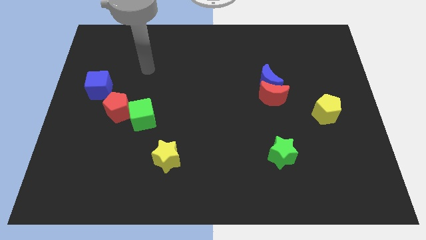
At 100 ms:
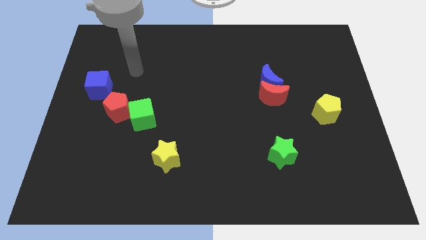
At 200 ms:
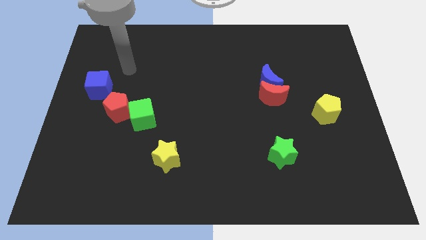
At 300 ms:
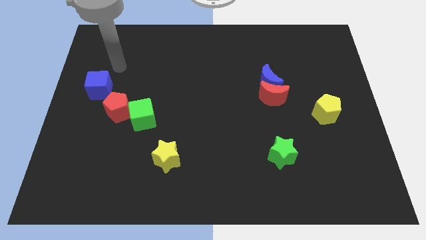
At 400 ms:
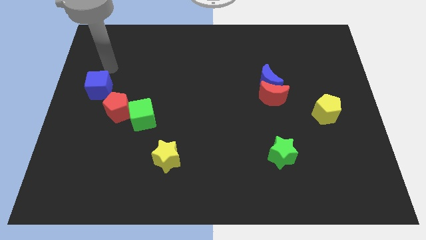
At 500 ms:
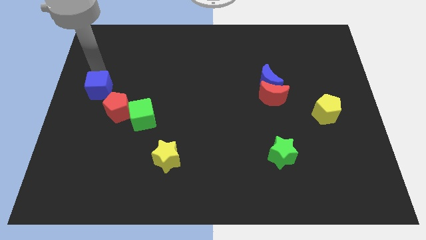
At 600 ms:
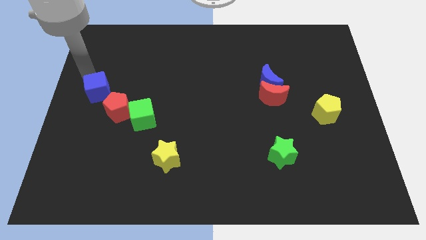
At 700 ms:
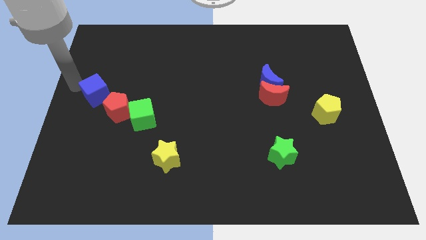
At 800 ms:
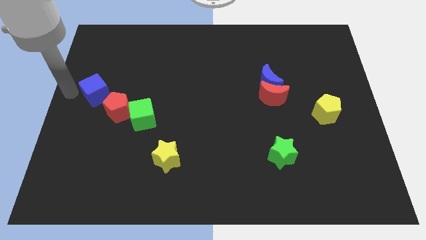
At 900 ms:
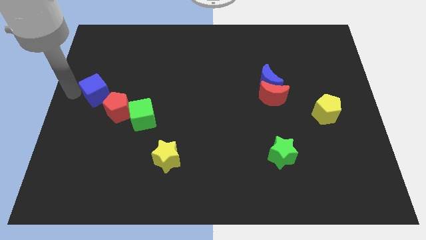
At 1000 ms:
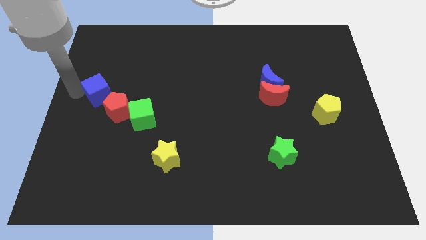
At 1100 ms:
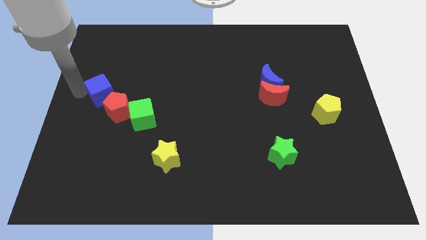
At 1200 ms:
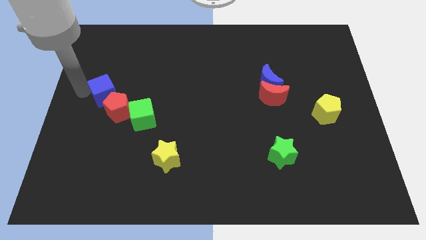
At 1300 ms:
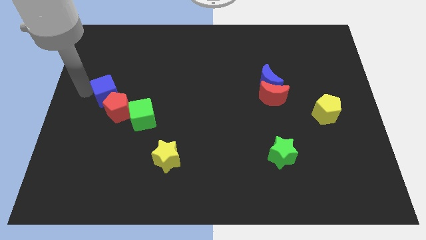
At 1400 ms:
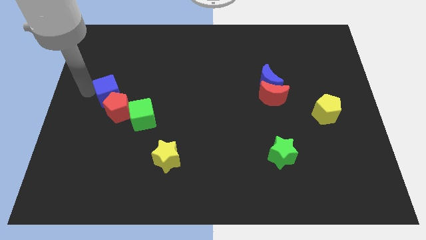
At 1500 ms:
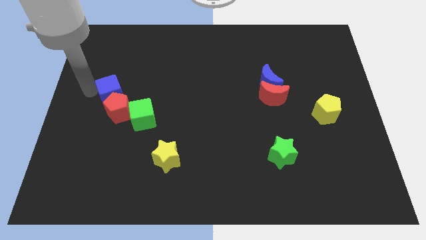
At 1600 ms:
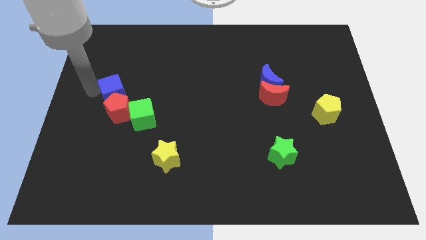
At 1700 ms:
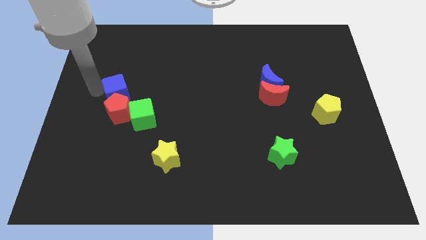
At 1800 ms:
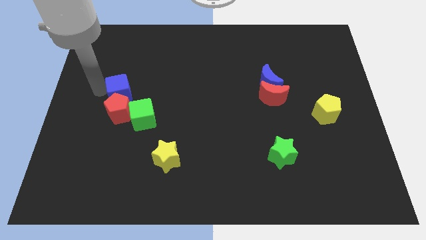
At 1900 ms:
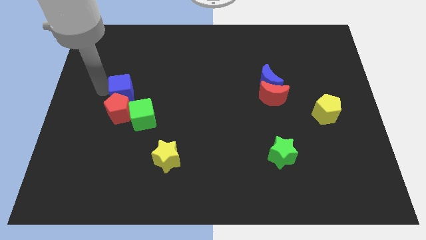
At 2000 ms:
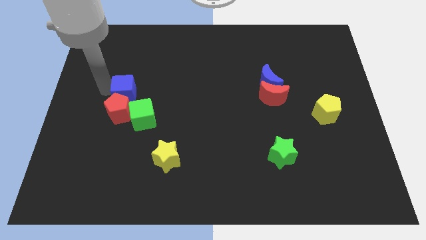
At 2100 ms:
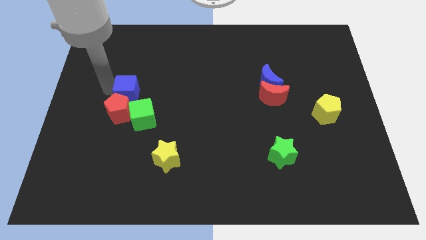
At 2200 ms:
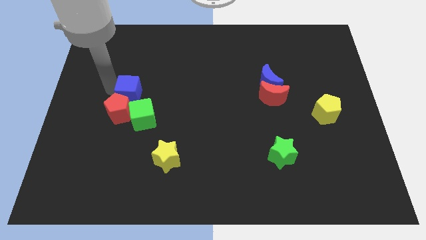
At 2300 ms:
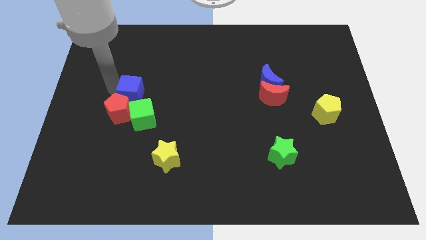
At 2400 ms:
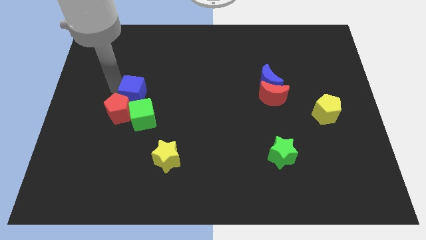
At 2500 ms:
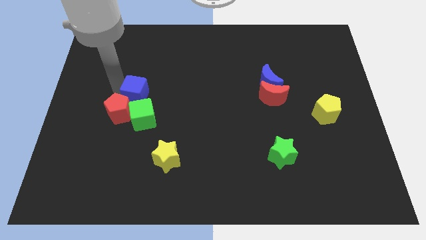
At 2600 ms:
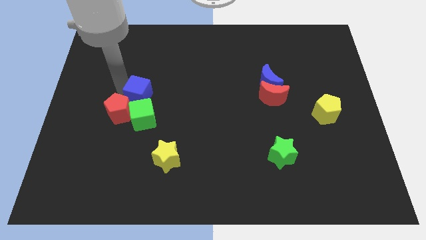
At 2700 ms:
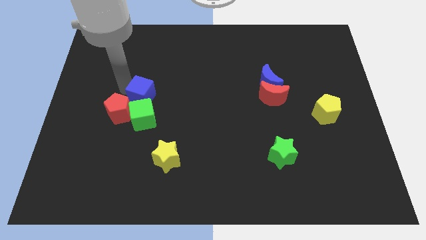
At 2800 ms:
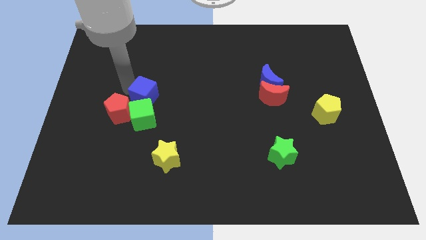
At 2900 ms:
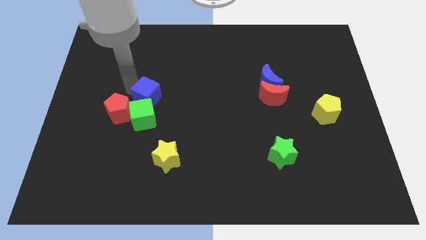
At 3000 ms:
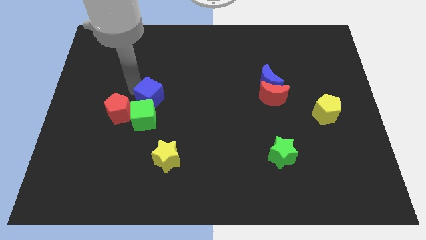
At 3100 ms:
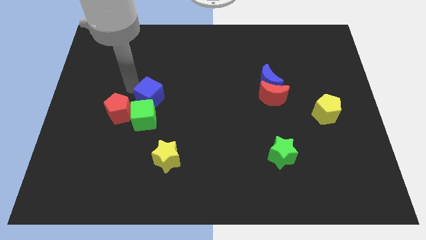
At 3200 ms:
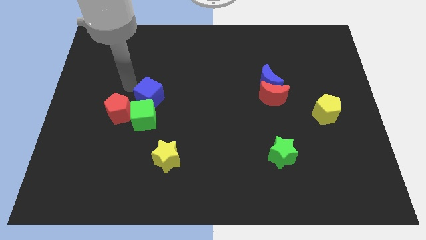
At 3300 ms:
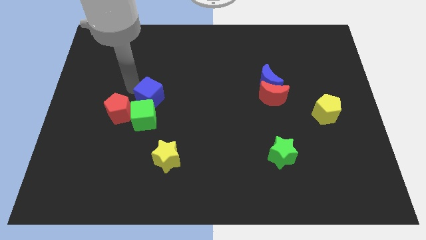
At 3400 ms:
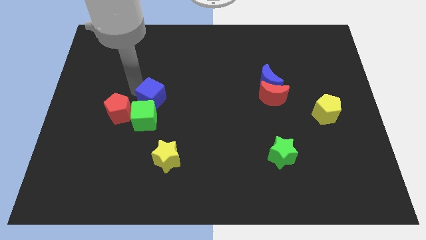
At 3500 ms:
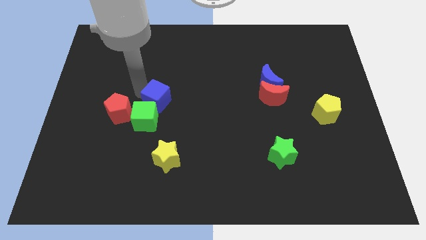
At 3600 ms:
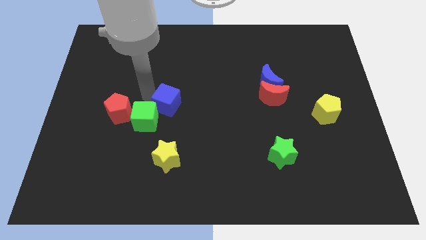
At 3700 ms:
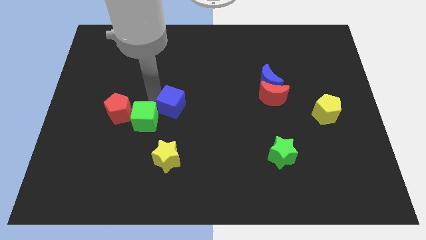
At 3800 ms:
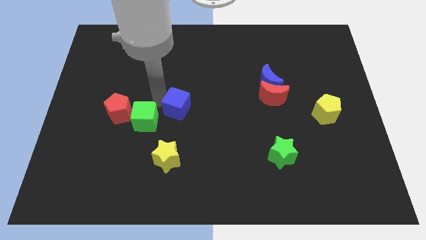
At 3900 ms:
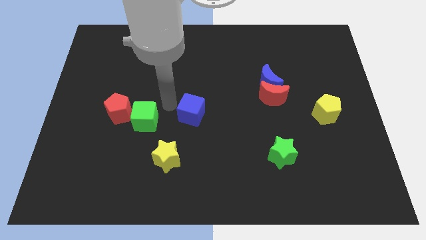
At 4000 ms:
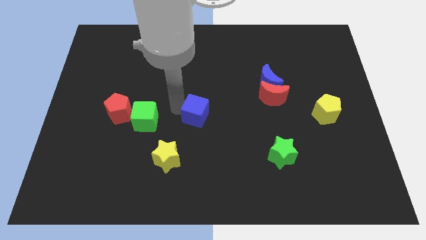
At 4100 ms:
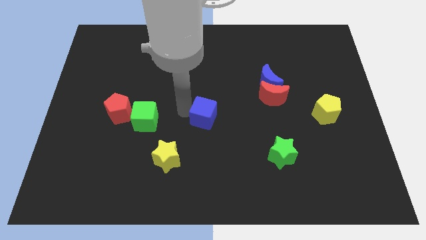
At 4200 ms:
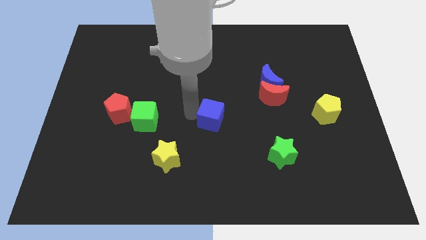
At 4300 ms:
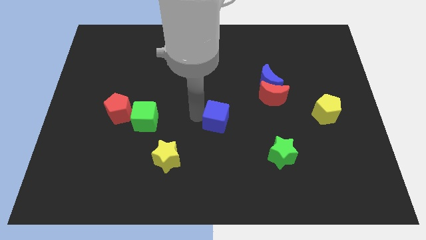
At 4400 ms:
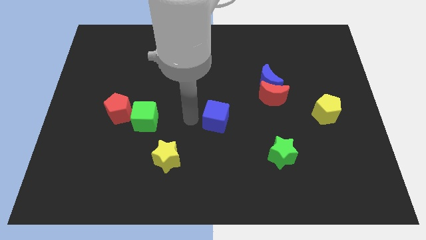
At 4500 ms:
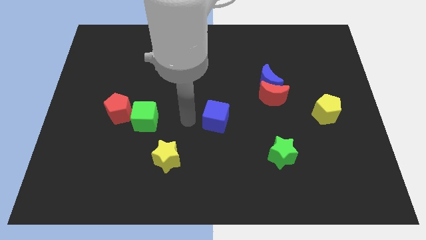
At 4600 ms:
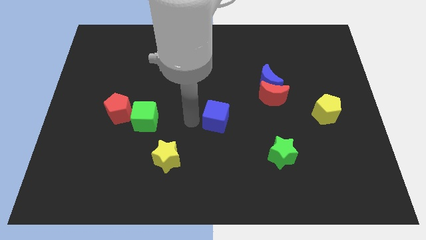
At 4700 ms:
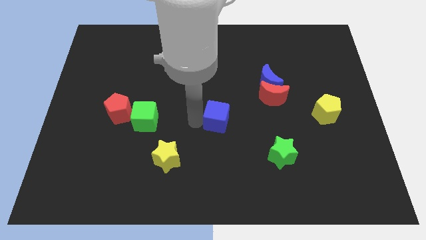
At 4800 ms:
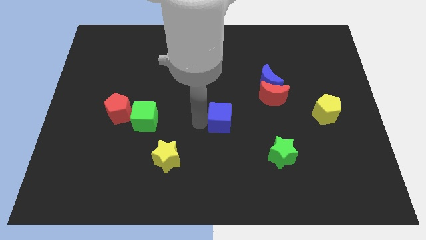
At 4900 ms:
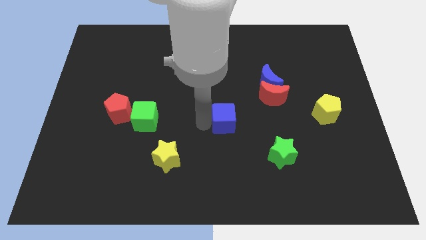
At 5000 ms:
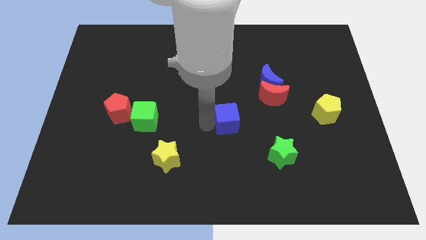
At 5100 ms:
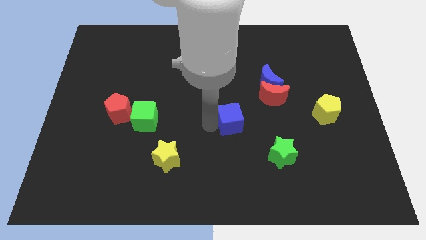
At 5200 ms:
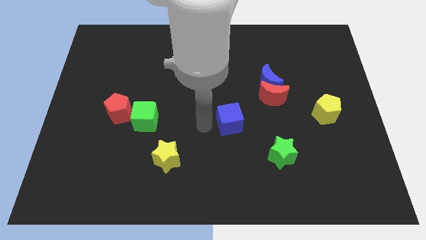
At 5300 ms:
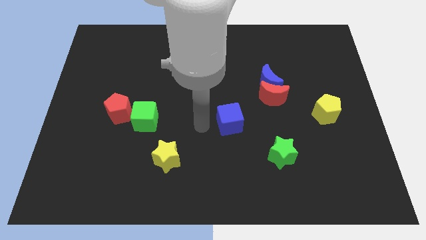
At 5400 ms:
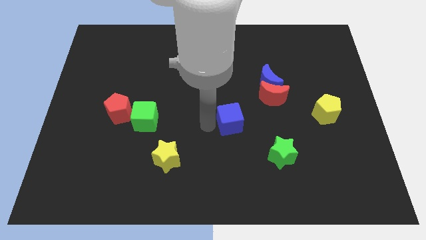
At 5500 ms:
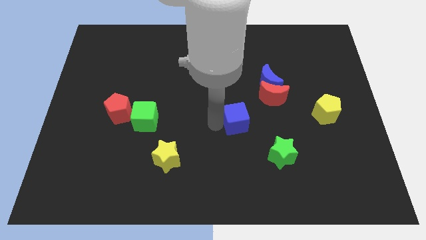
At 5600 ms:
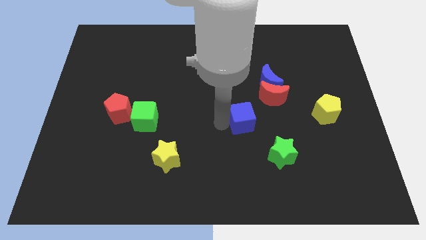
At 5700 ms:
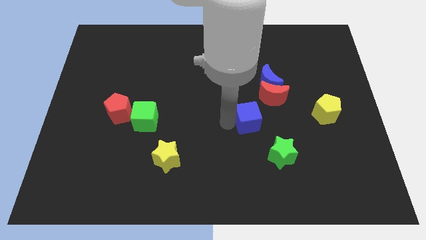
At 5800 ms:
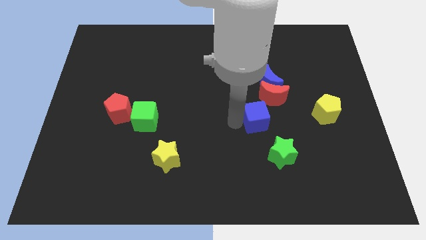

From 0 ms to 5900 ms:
push the blue cube to the bottom of the blue moon

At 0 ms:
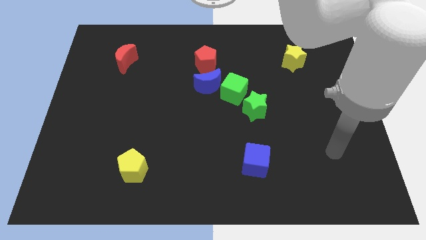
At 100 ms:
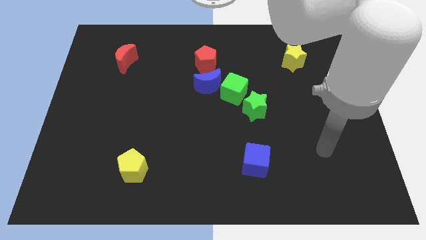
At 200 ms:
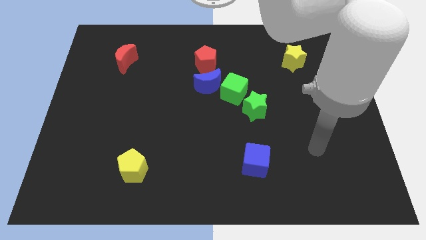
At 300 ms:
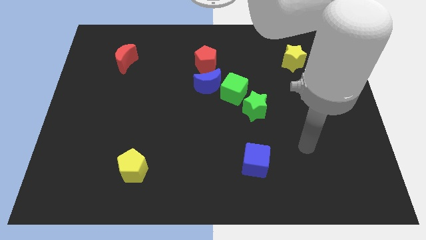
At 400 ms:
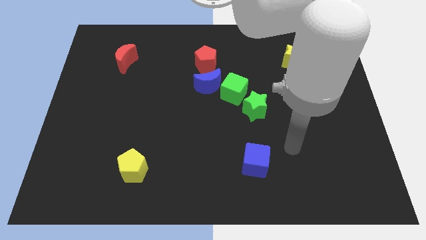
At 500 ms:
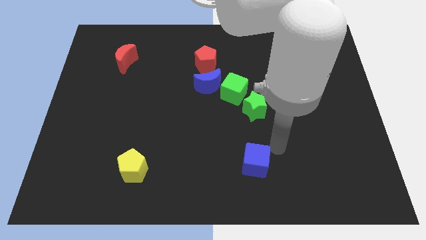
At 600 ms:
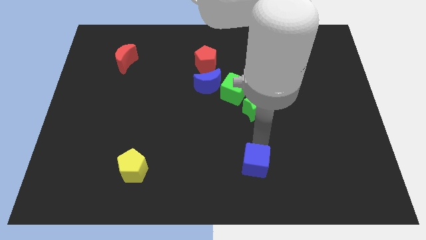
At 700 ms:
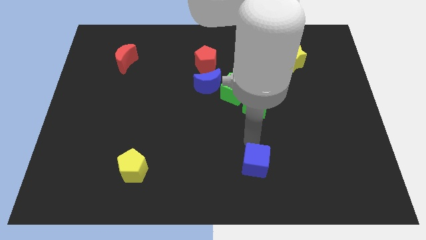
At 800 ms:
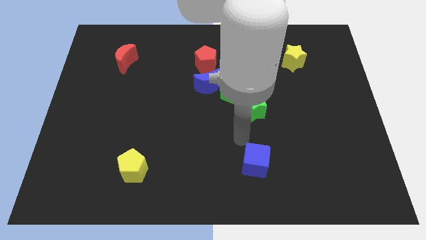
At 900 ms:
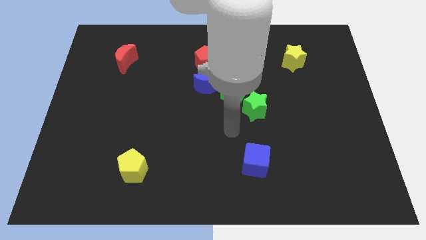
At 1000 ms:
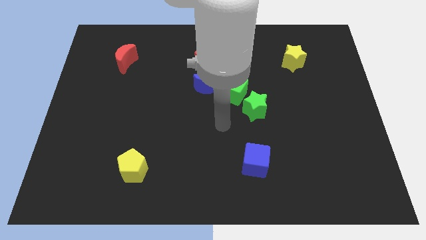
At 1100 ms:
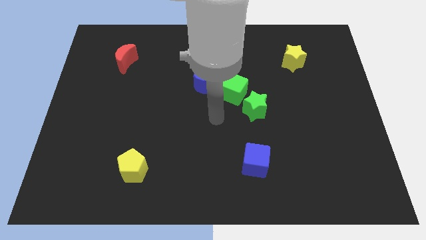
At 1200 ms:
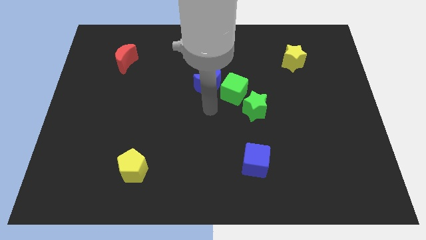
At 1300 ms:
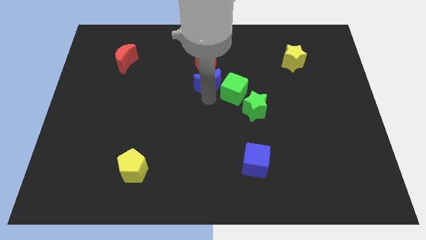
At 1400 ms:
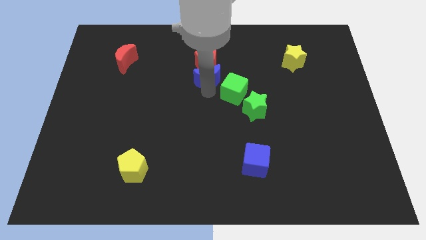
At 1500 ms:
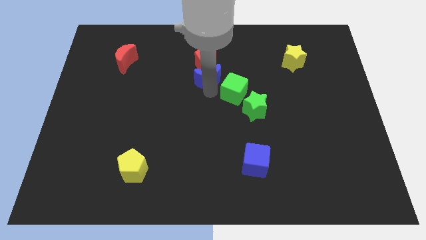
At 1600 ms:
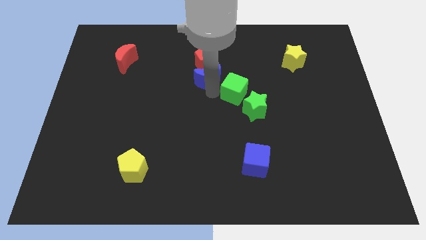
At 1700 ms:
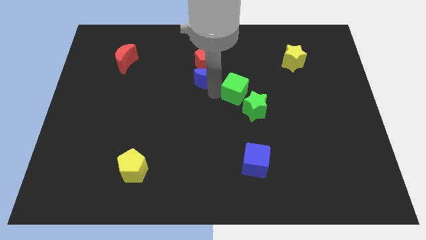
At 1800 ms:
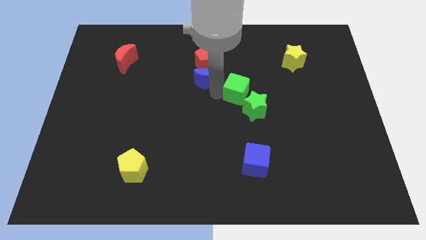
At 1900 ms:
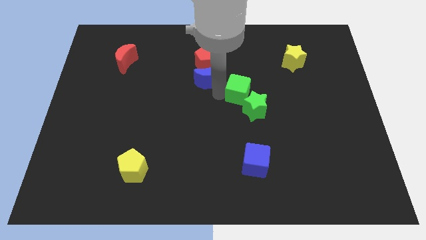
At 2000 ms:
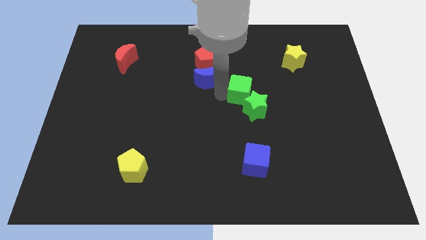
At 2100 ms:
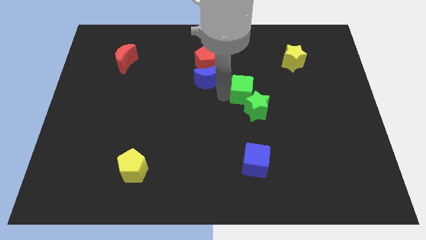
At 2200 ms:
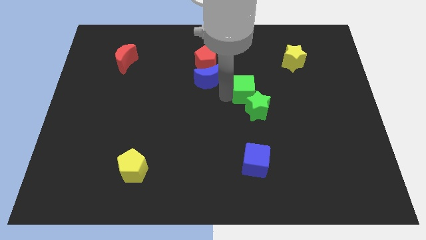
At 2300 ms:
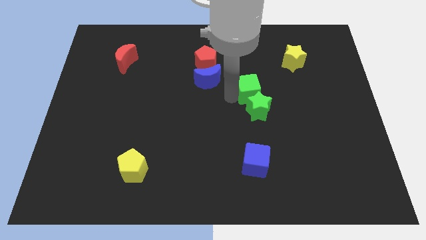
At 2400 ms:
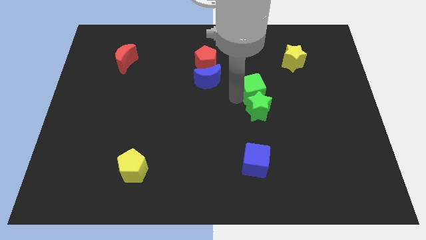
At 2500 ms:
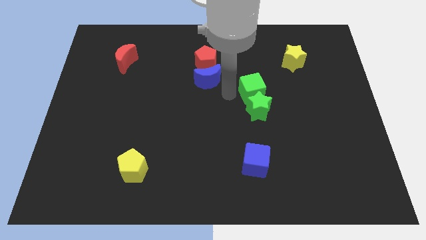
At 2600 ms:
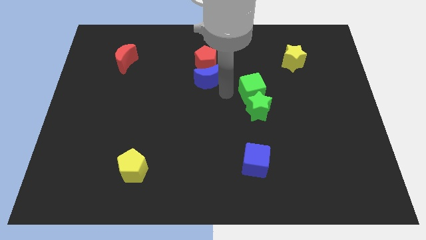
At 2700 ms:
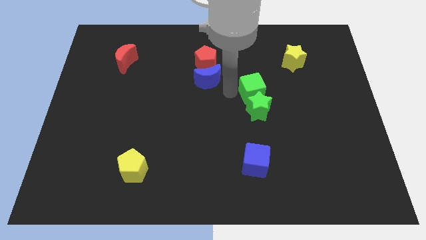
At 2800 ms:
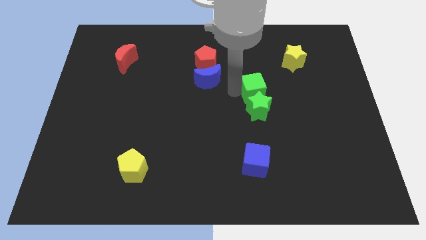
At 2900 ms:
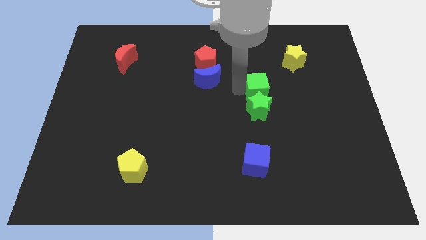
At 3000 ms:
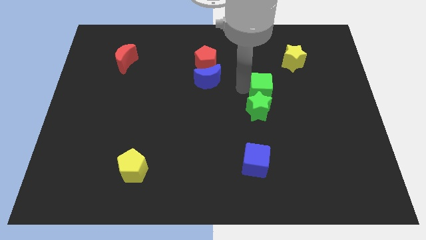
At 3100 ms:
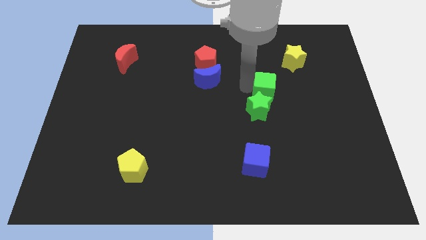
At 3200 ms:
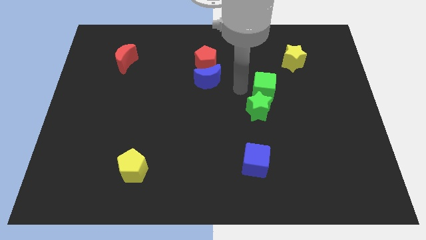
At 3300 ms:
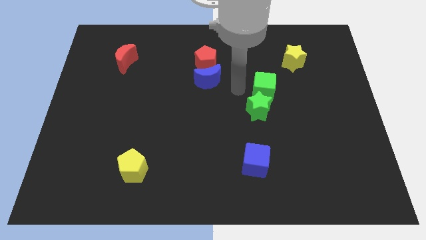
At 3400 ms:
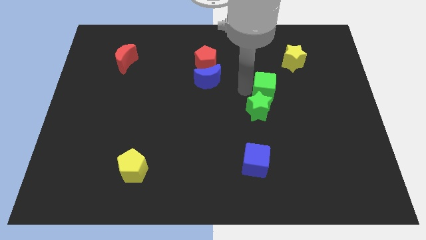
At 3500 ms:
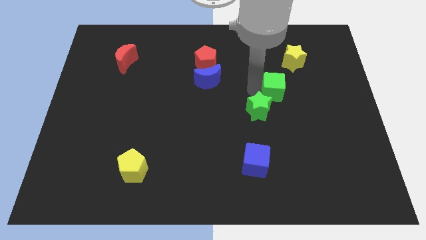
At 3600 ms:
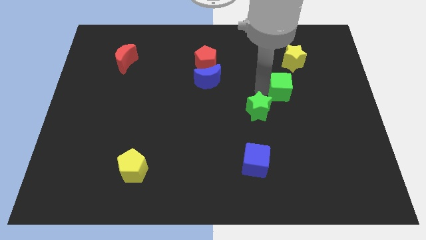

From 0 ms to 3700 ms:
put the green cube to the bottom of the yellow star
